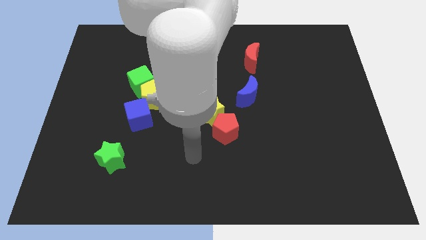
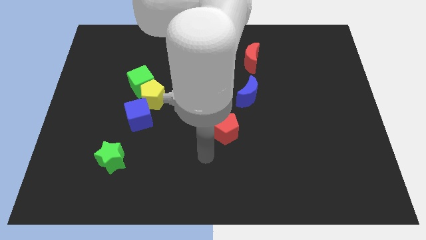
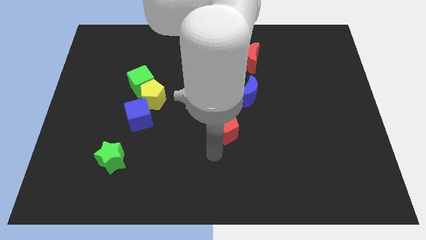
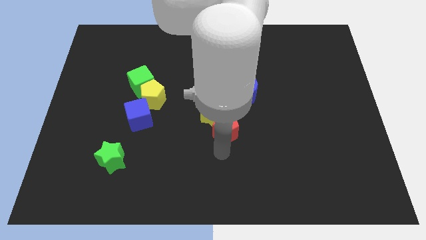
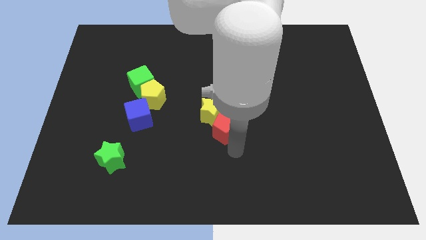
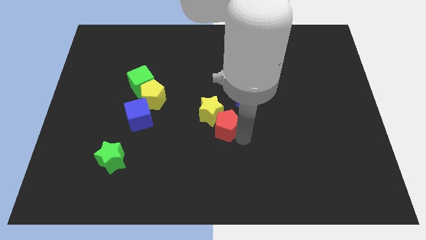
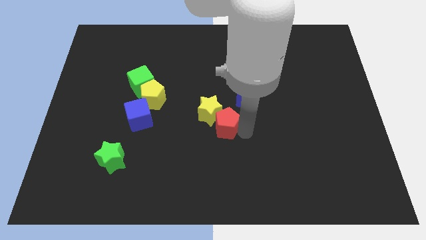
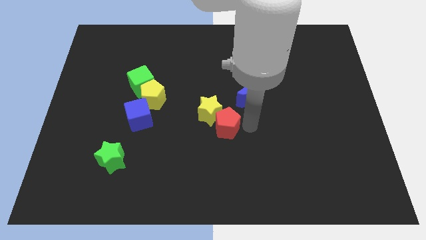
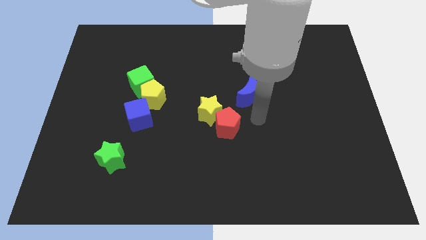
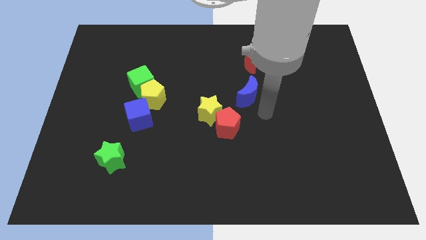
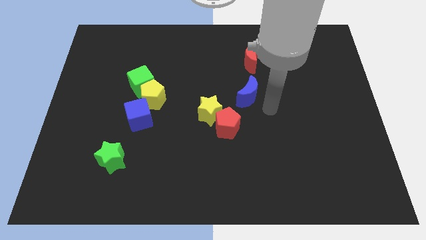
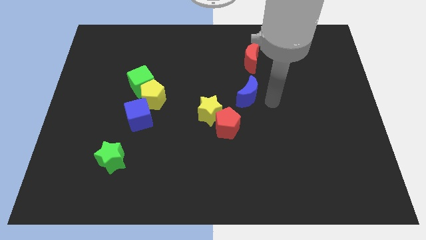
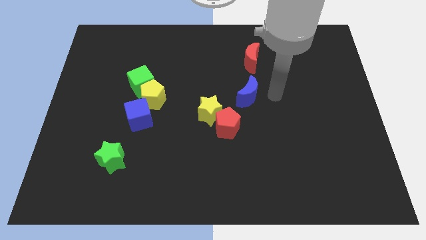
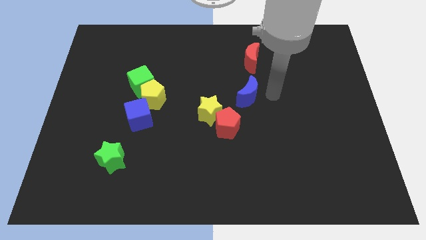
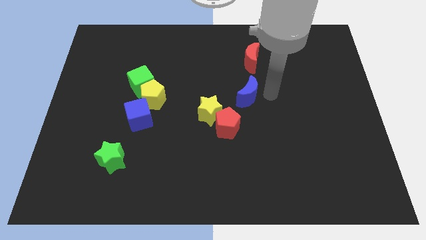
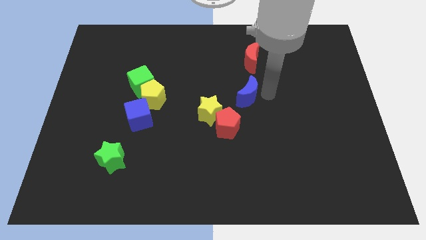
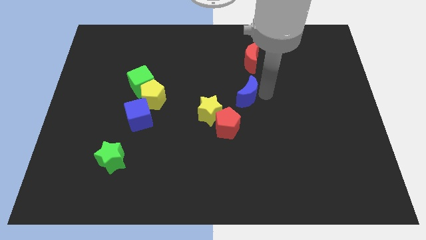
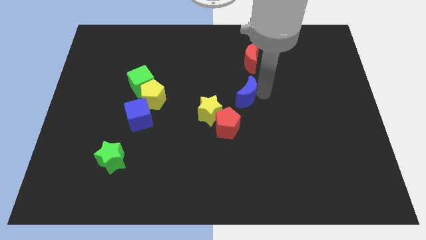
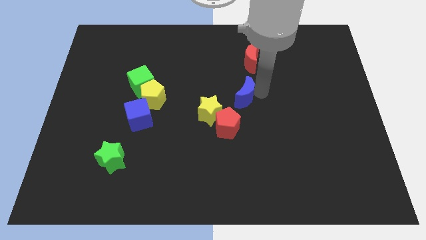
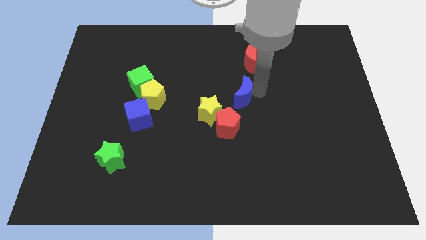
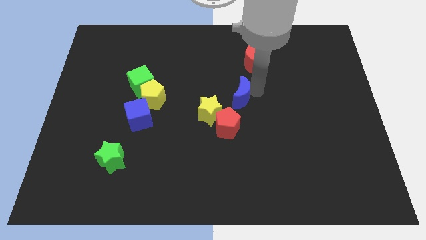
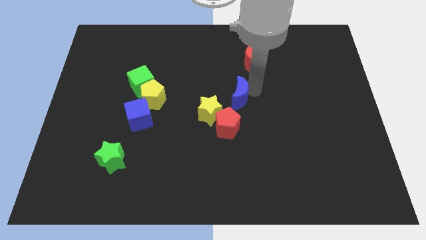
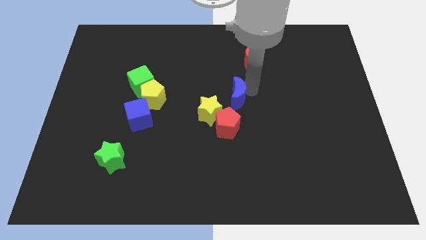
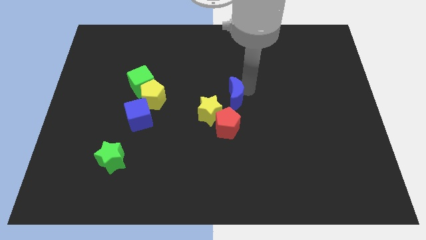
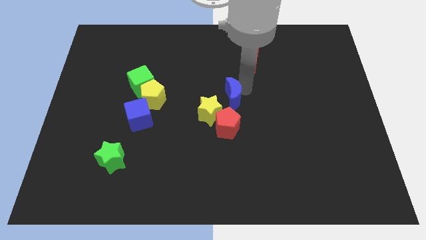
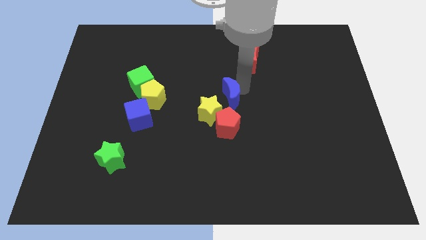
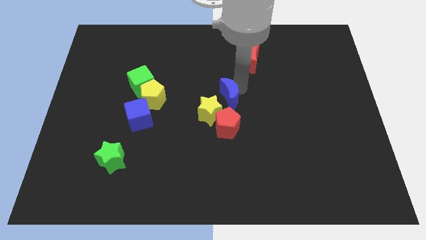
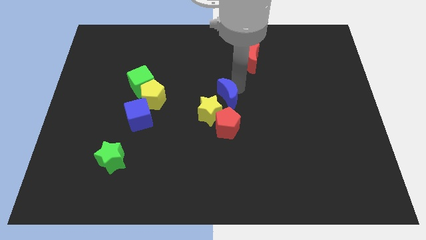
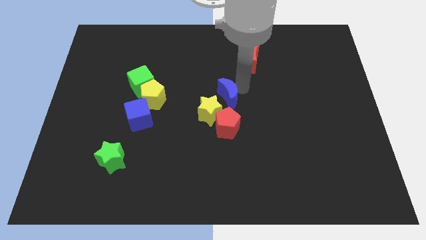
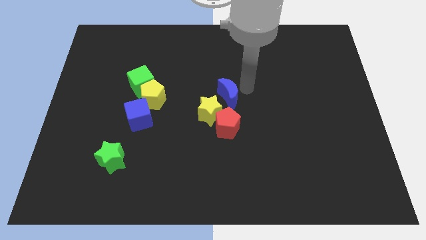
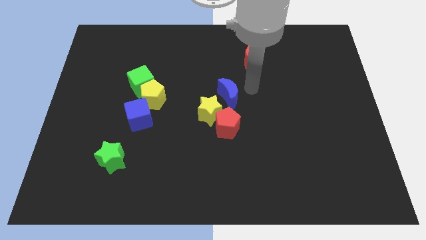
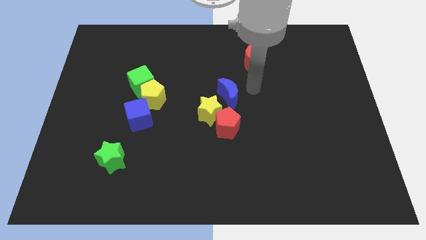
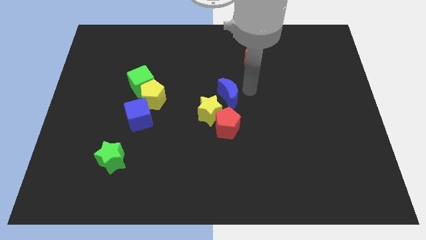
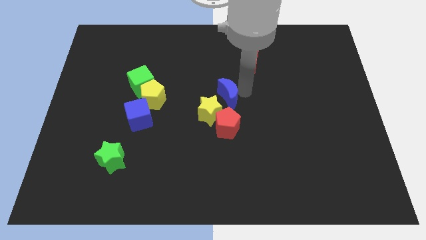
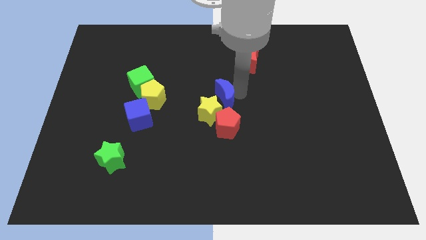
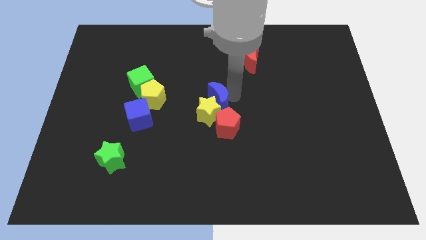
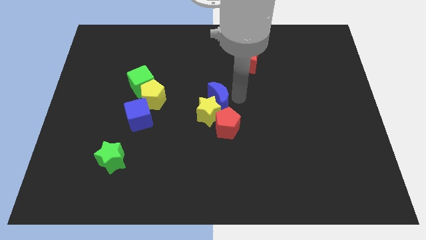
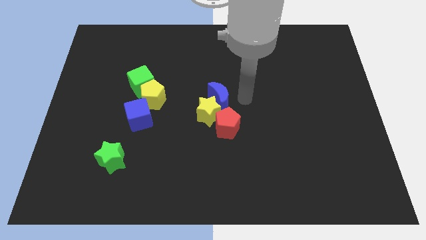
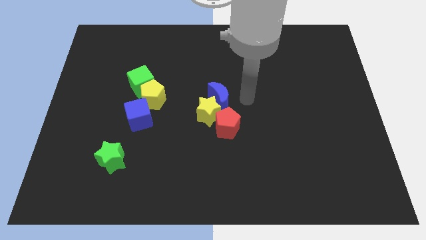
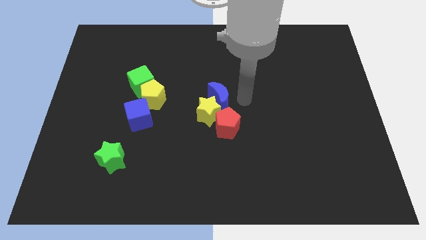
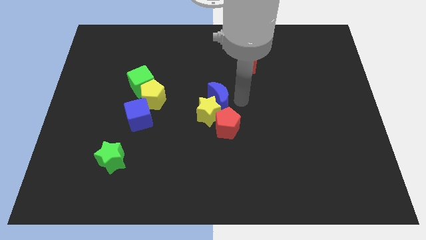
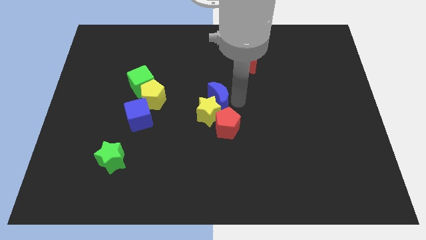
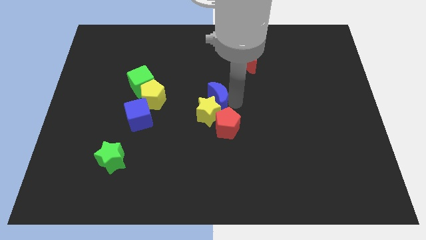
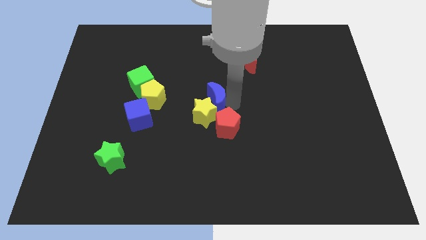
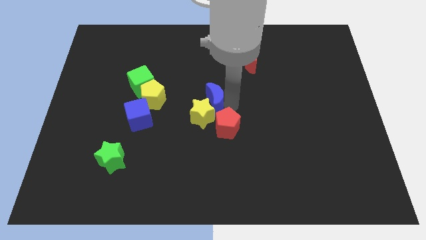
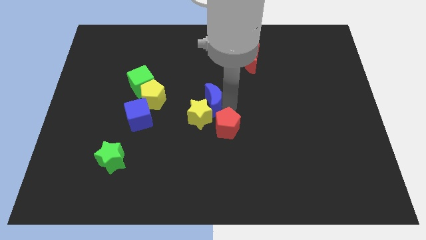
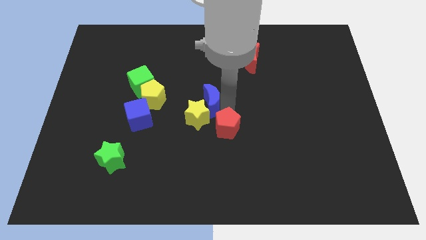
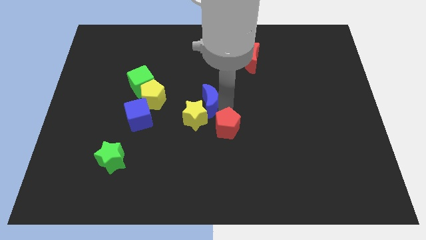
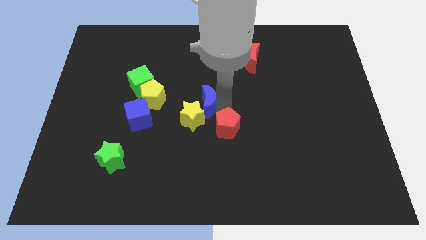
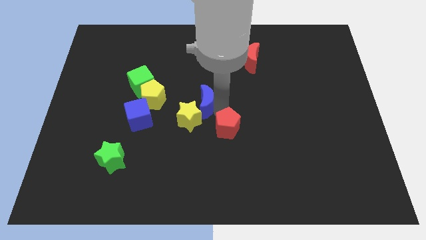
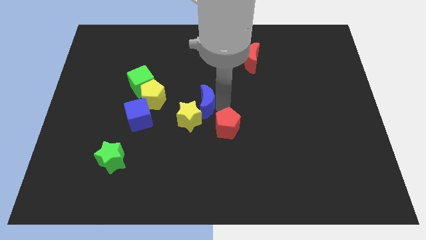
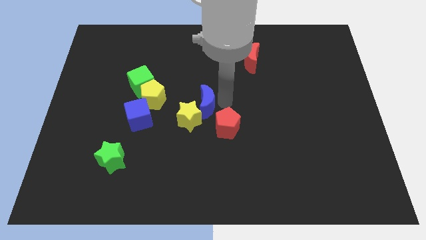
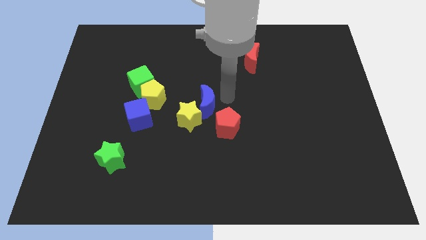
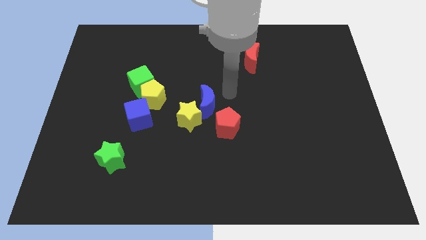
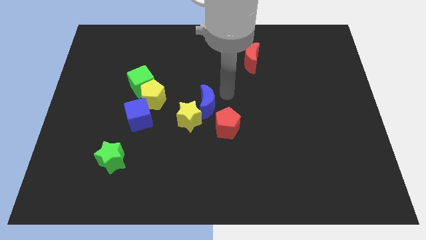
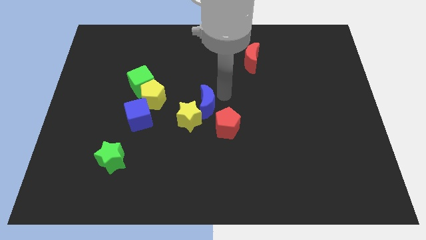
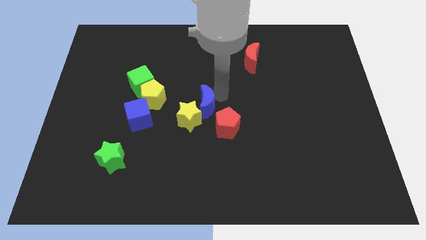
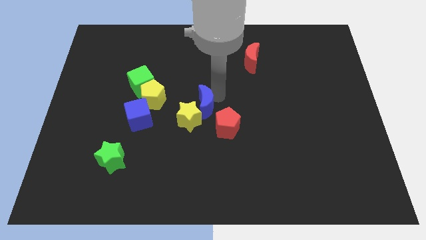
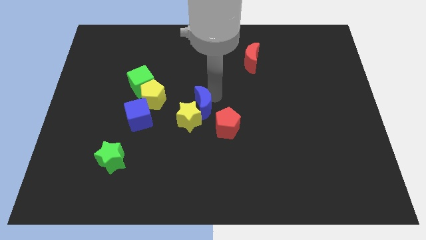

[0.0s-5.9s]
put the blue moon just right of the blue cube

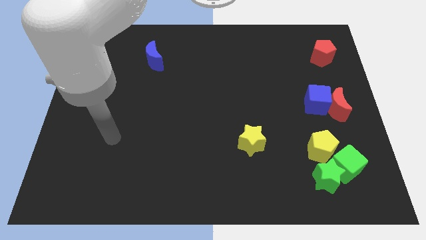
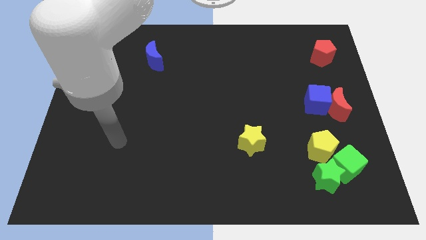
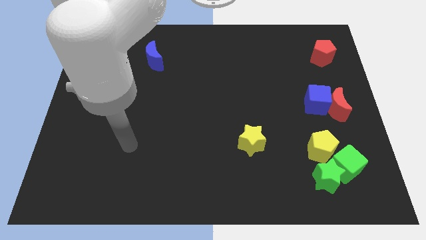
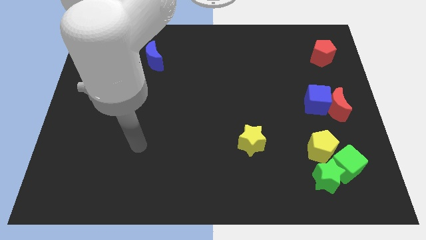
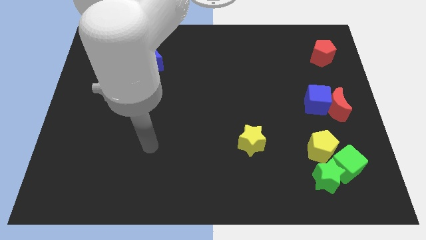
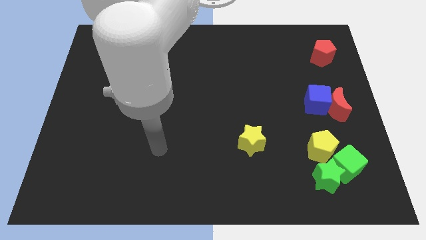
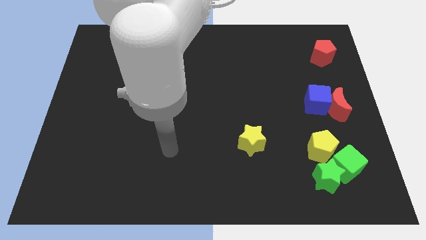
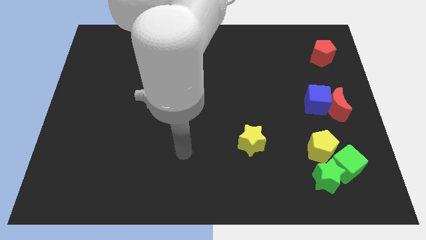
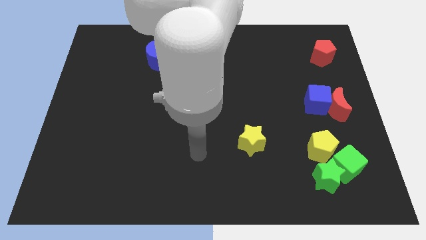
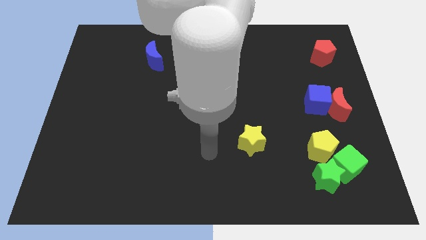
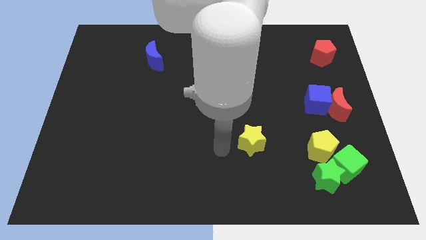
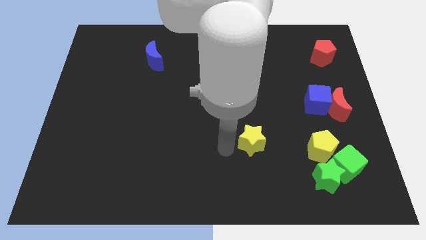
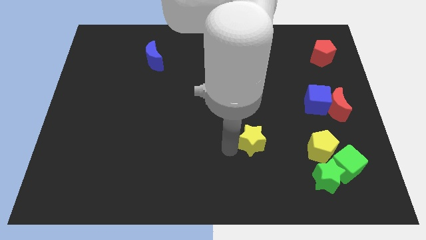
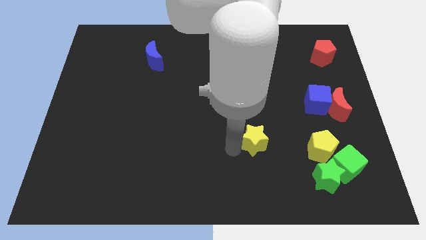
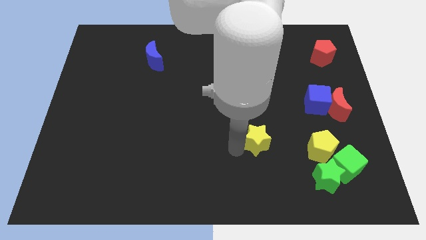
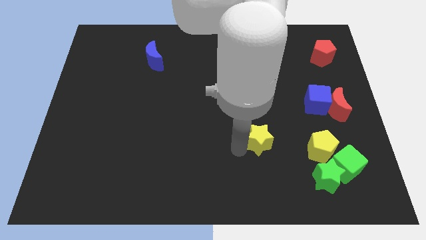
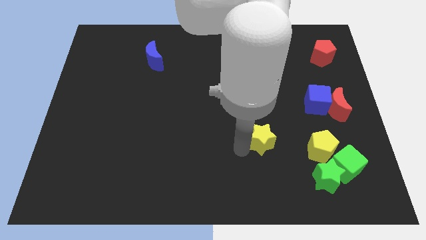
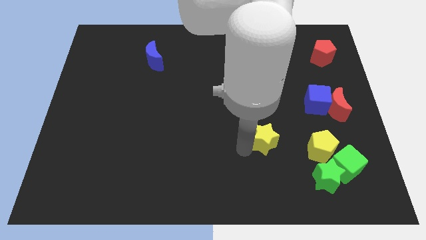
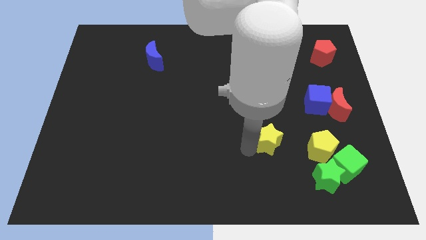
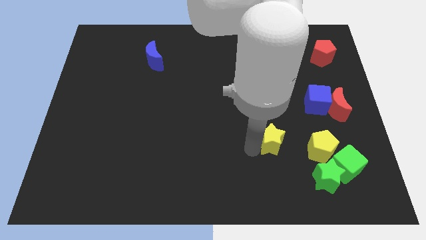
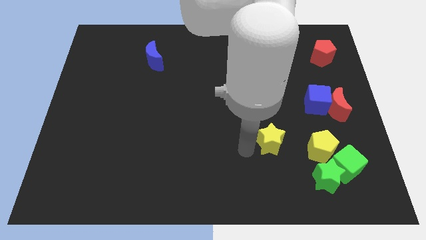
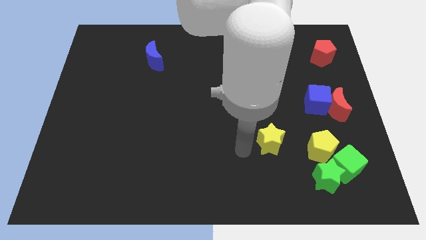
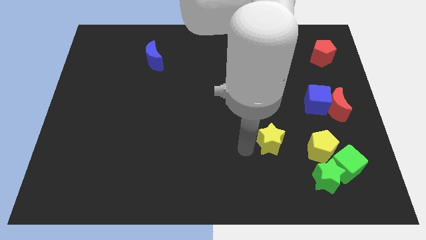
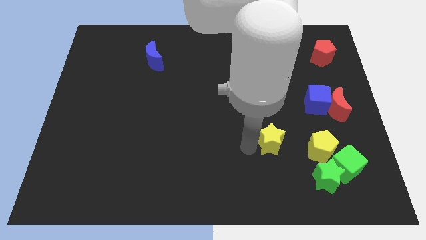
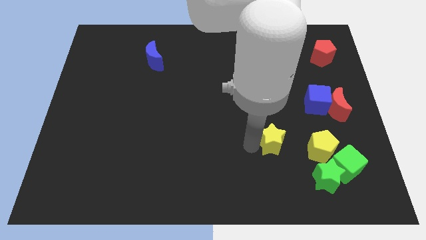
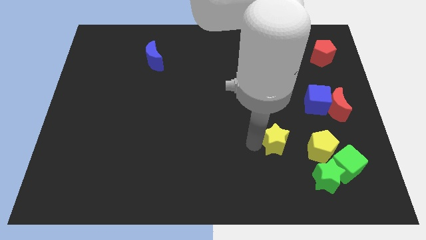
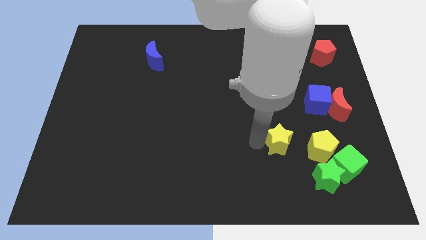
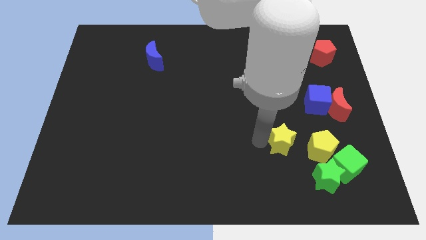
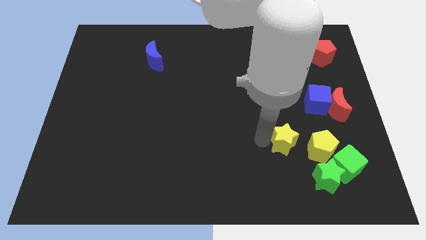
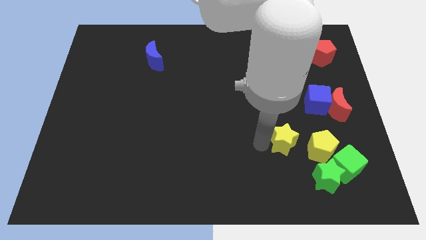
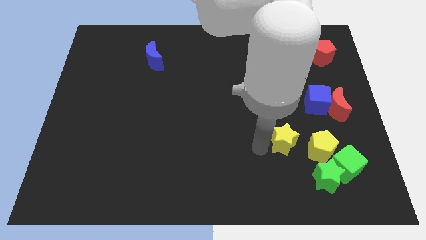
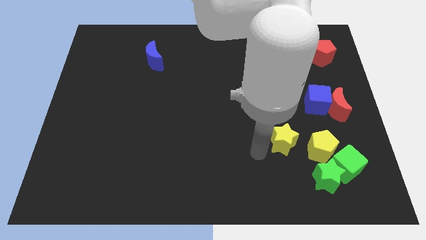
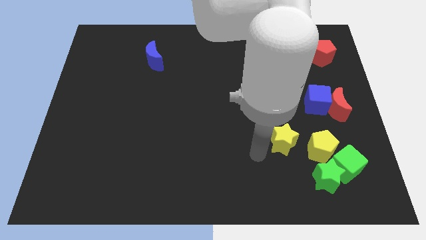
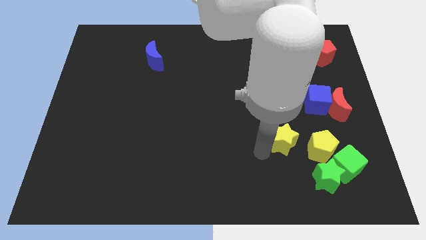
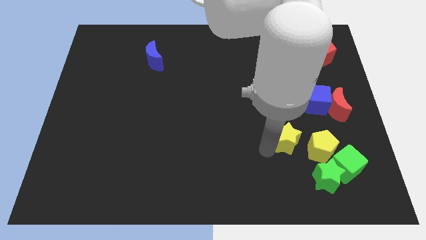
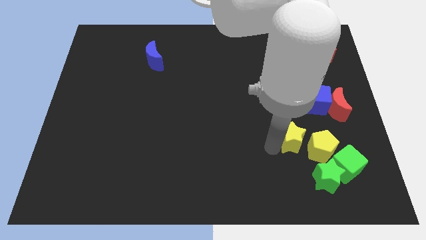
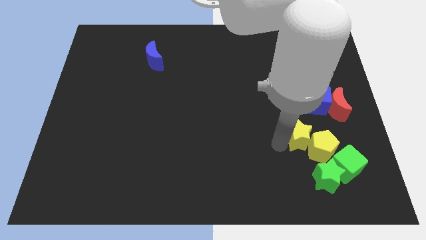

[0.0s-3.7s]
move the yellow star to the top side of the green star
